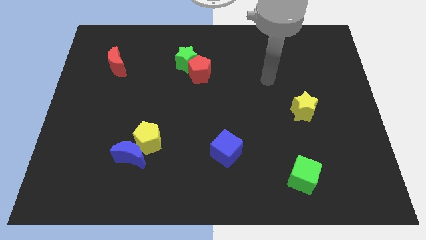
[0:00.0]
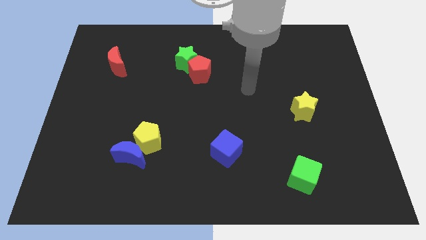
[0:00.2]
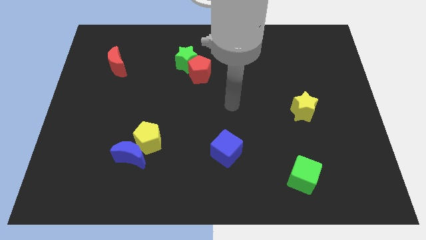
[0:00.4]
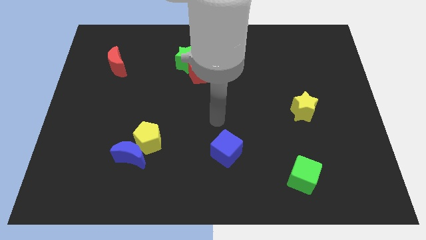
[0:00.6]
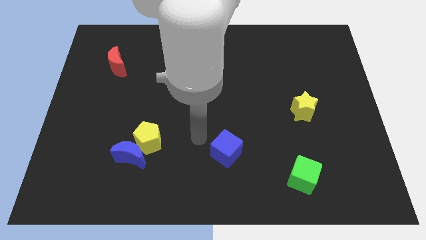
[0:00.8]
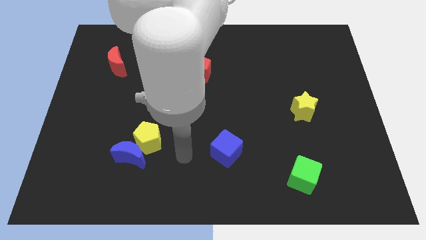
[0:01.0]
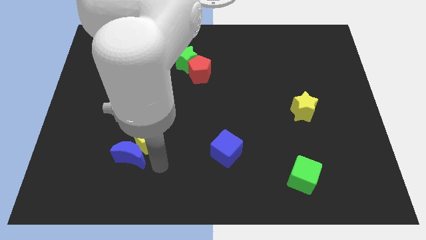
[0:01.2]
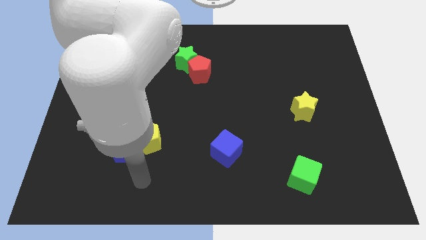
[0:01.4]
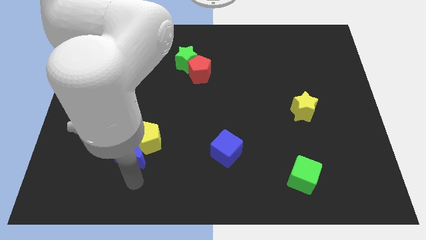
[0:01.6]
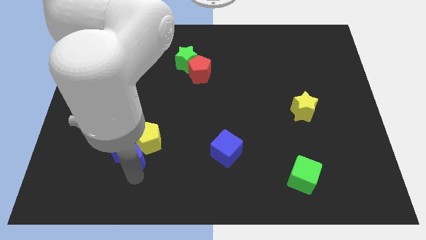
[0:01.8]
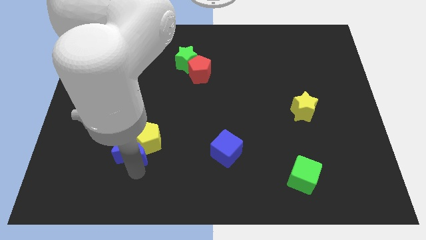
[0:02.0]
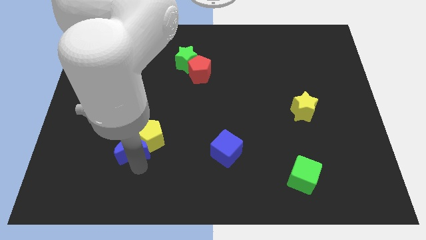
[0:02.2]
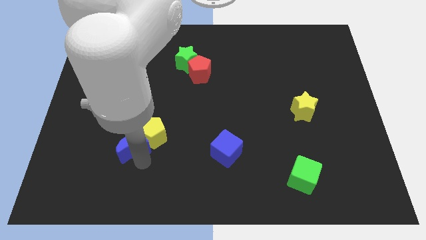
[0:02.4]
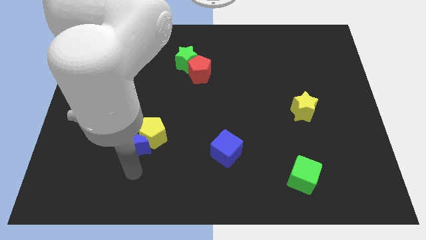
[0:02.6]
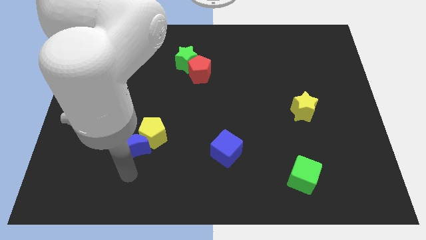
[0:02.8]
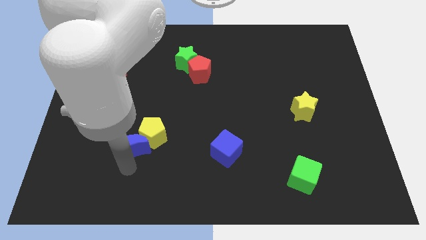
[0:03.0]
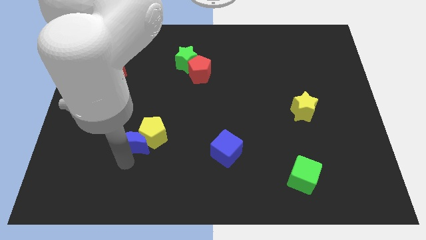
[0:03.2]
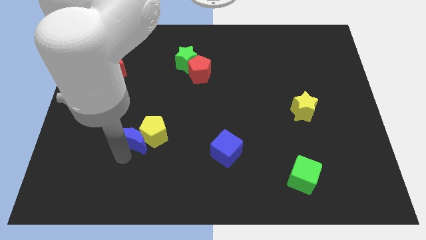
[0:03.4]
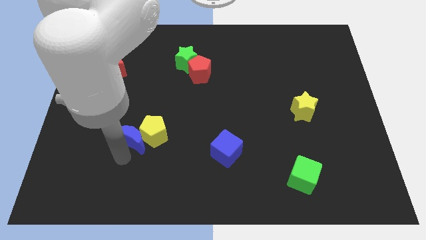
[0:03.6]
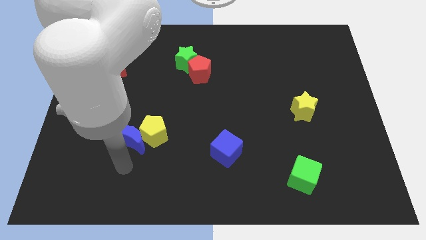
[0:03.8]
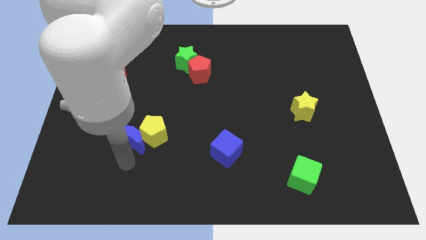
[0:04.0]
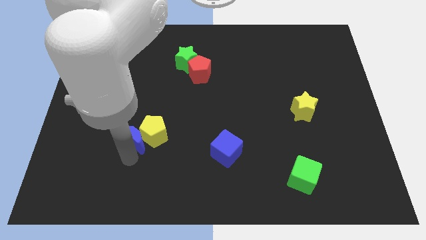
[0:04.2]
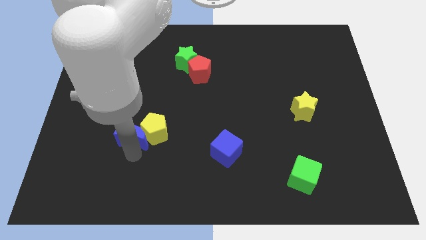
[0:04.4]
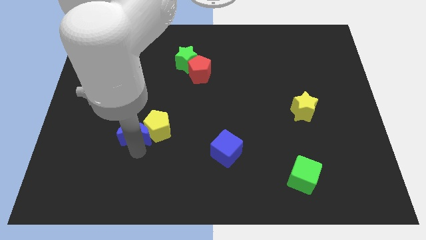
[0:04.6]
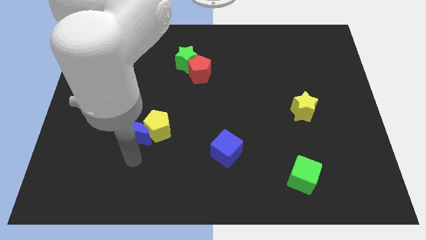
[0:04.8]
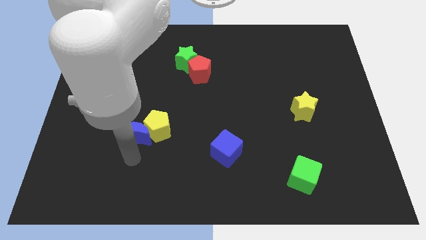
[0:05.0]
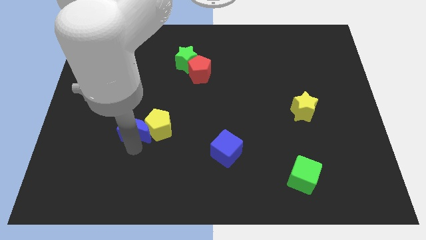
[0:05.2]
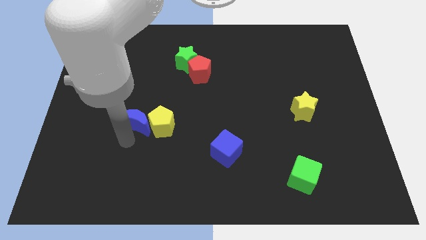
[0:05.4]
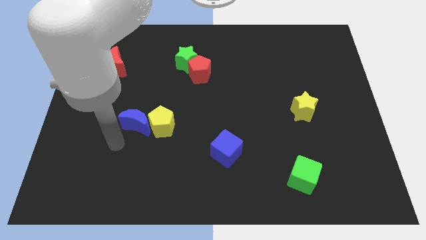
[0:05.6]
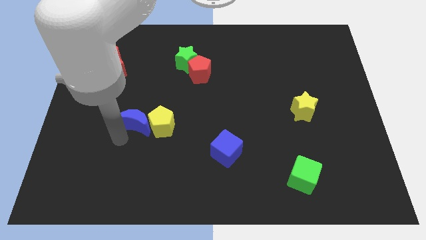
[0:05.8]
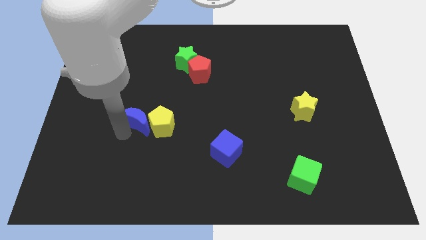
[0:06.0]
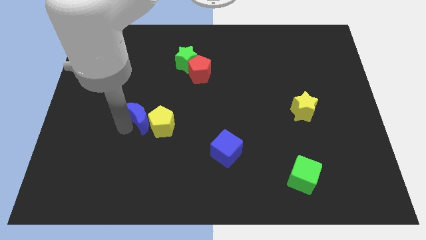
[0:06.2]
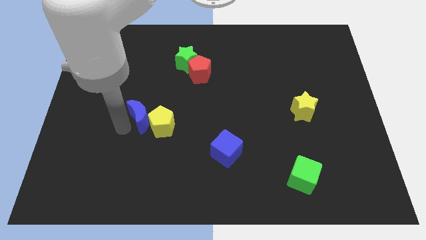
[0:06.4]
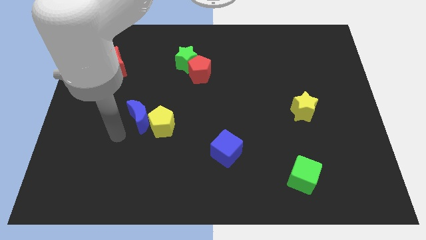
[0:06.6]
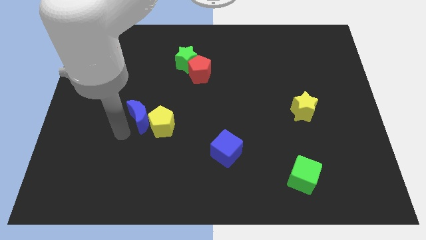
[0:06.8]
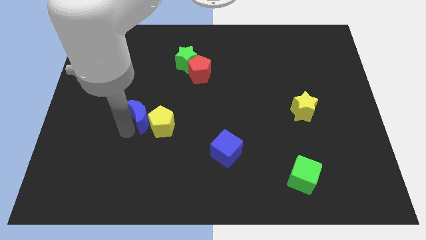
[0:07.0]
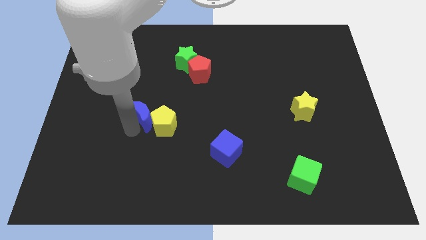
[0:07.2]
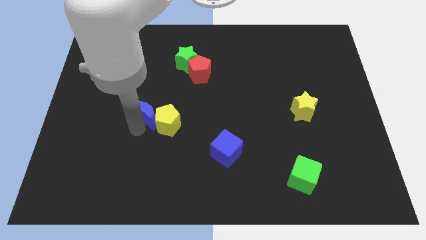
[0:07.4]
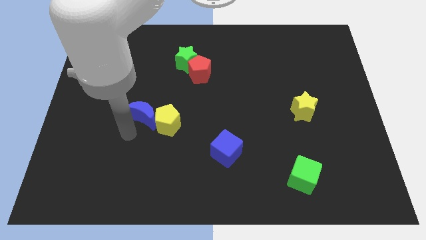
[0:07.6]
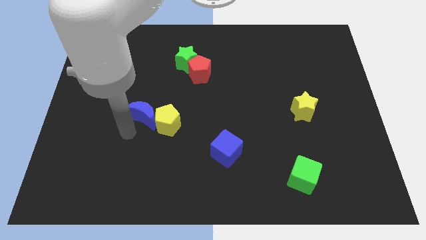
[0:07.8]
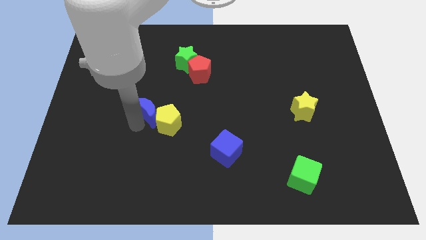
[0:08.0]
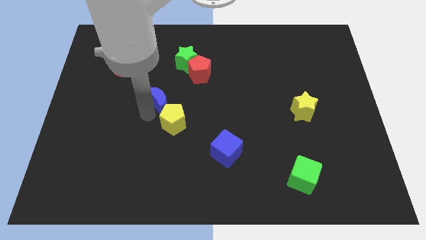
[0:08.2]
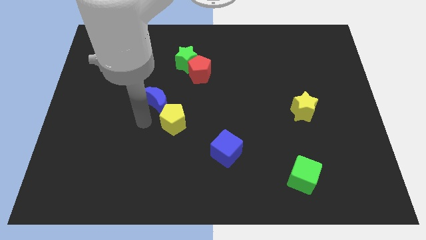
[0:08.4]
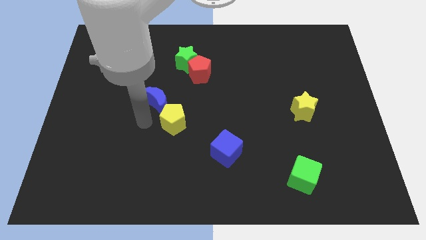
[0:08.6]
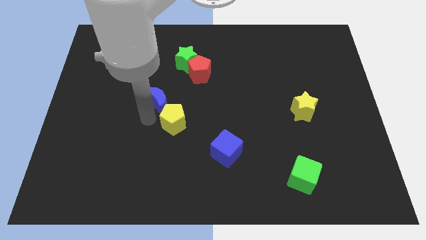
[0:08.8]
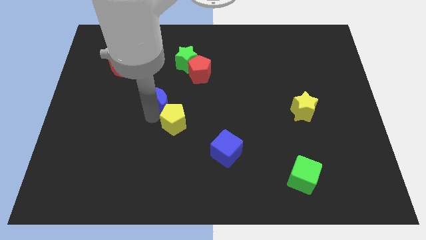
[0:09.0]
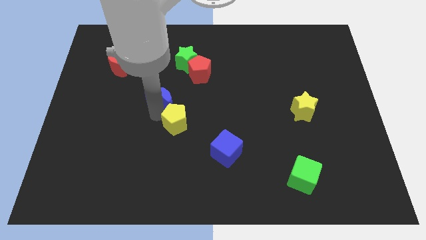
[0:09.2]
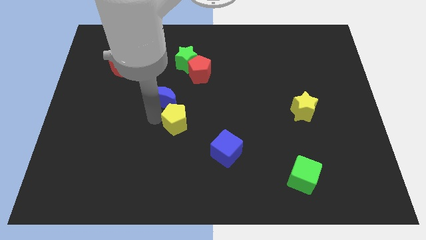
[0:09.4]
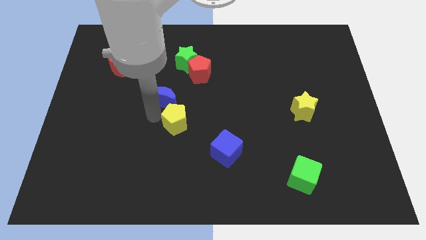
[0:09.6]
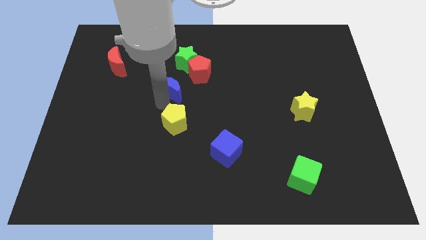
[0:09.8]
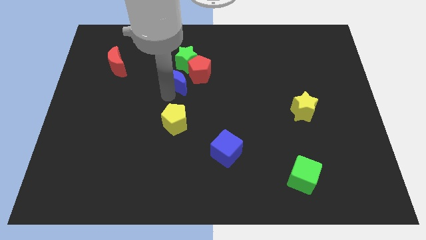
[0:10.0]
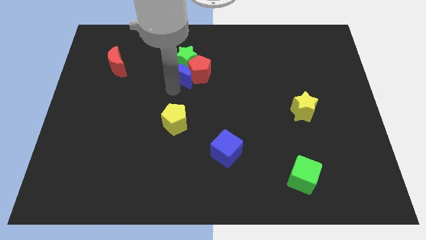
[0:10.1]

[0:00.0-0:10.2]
push the blue moon close to the green star

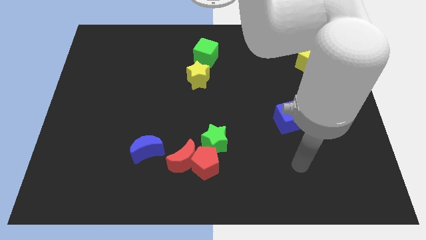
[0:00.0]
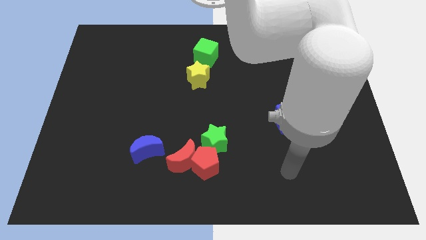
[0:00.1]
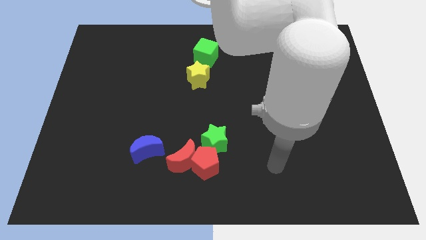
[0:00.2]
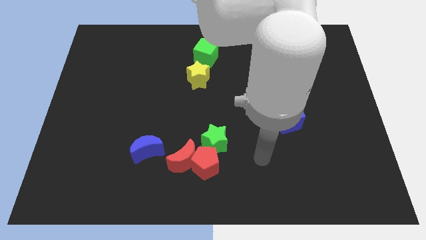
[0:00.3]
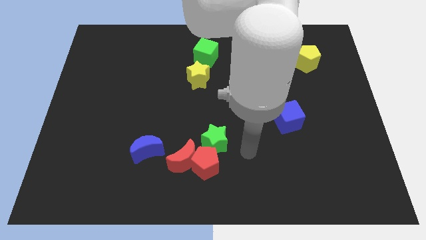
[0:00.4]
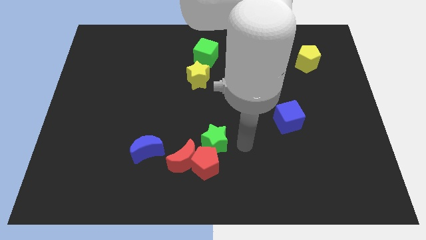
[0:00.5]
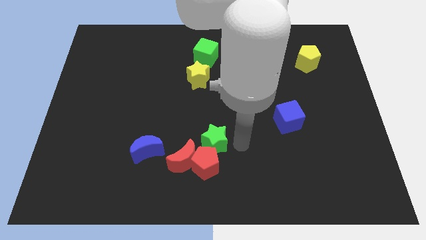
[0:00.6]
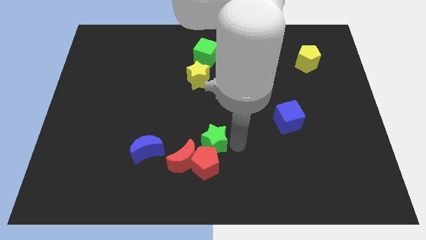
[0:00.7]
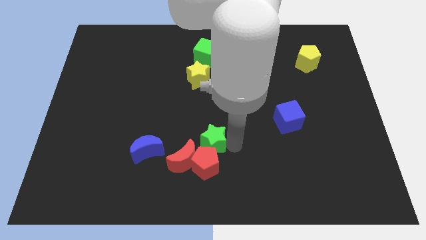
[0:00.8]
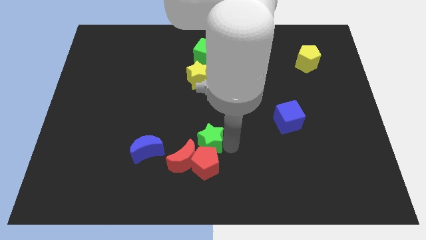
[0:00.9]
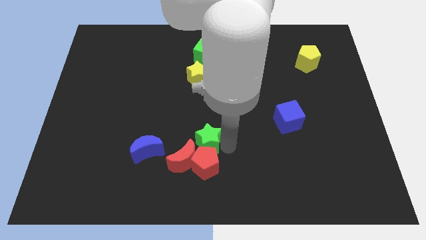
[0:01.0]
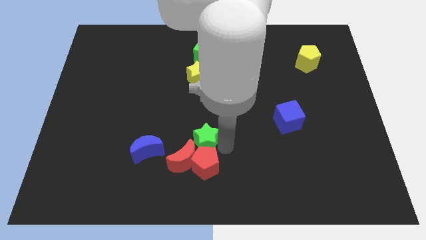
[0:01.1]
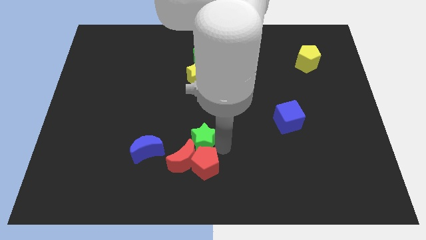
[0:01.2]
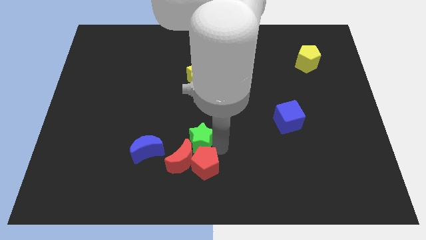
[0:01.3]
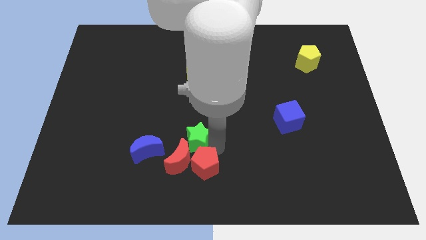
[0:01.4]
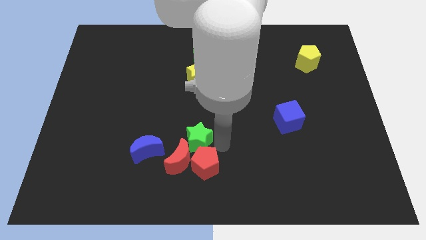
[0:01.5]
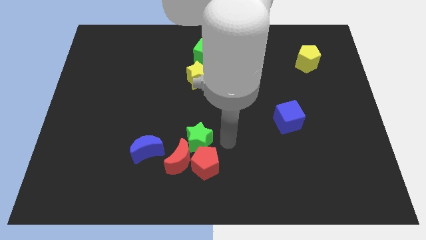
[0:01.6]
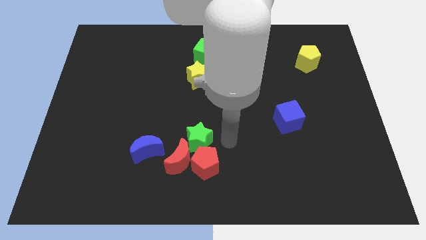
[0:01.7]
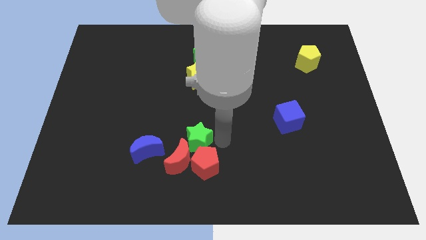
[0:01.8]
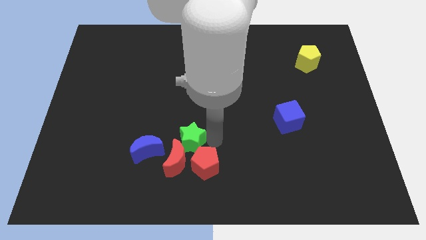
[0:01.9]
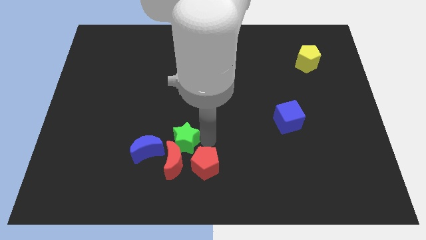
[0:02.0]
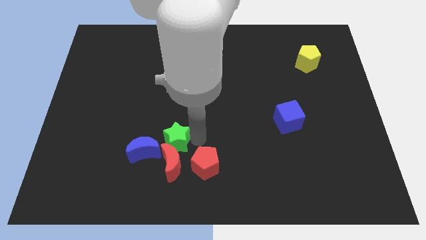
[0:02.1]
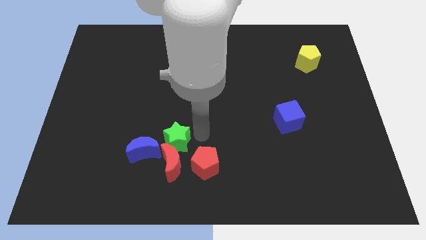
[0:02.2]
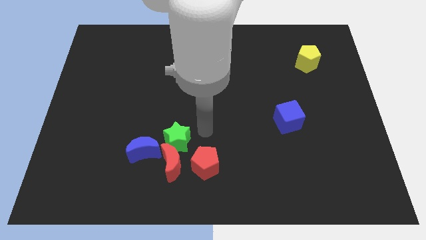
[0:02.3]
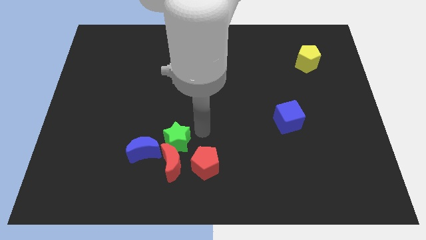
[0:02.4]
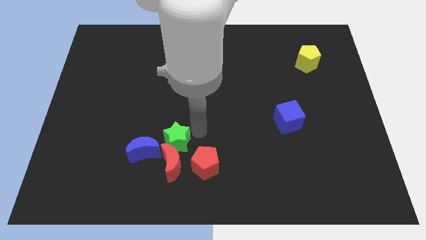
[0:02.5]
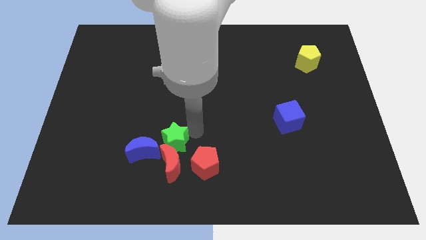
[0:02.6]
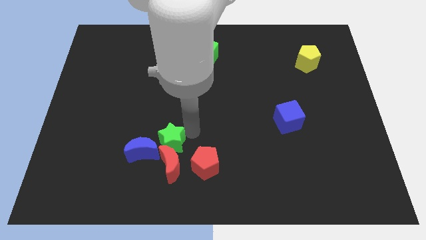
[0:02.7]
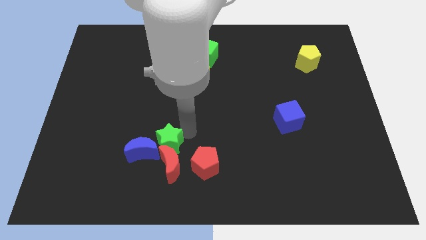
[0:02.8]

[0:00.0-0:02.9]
slide the green star towards the blue moon
